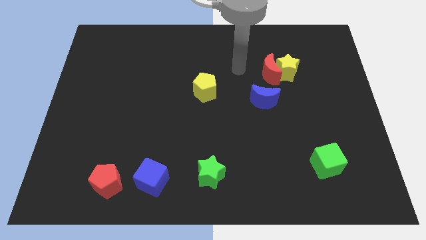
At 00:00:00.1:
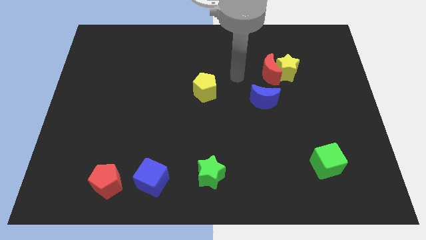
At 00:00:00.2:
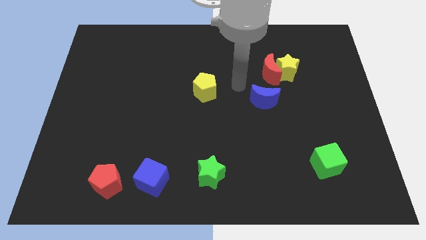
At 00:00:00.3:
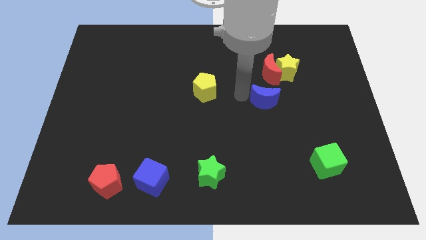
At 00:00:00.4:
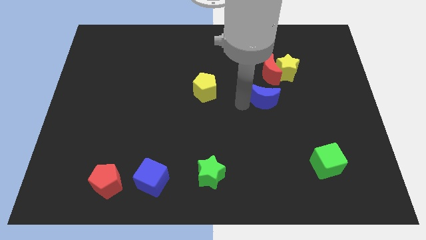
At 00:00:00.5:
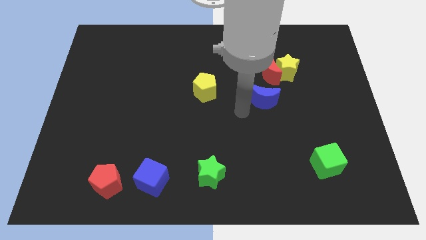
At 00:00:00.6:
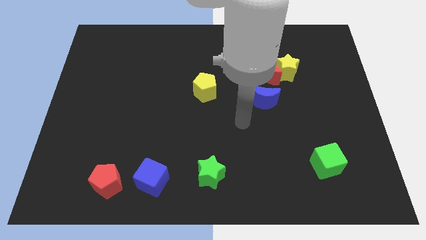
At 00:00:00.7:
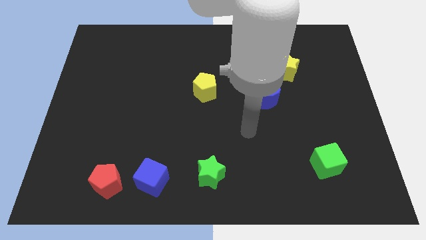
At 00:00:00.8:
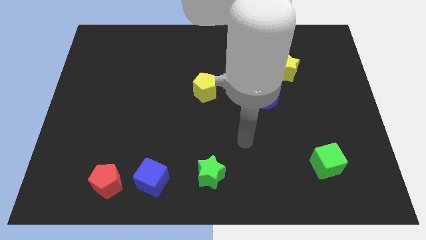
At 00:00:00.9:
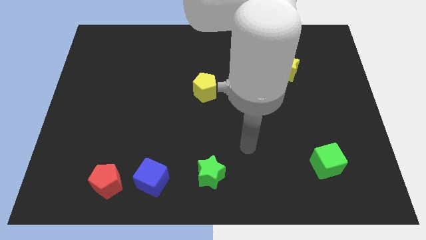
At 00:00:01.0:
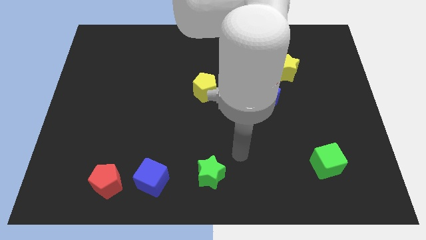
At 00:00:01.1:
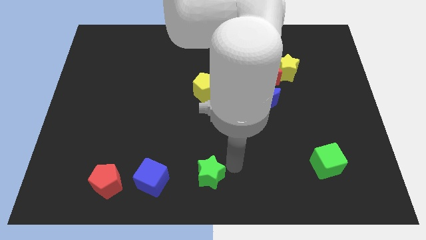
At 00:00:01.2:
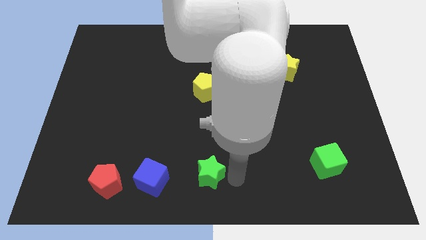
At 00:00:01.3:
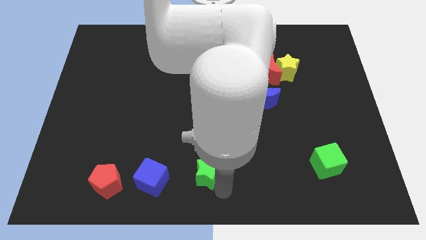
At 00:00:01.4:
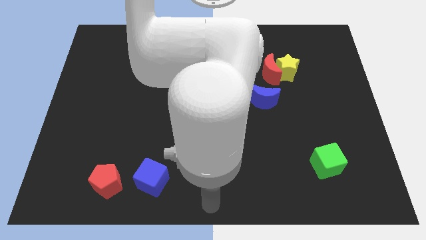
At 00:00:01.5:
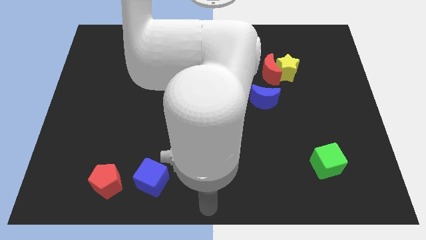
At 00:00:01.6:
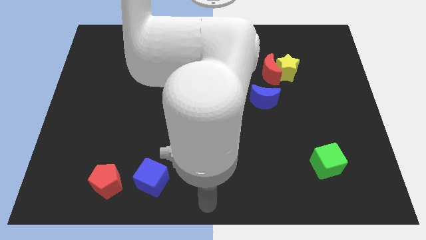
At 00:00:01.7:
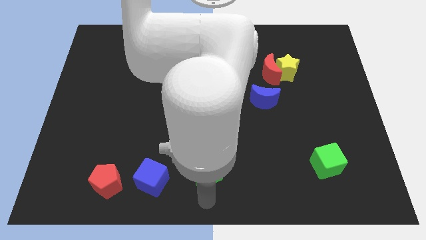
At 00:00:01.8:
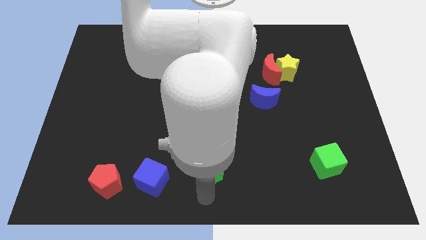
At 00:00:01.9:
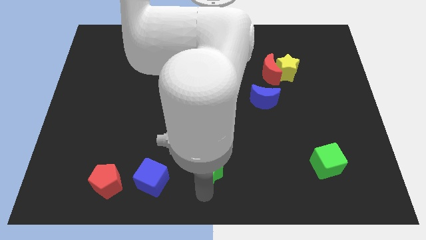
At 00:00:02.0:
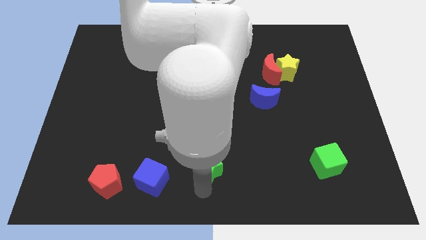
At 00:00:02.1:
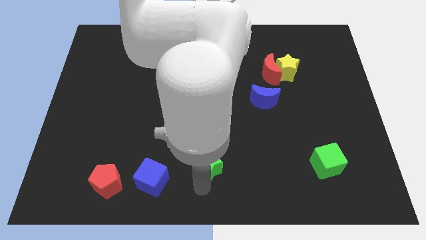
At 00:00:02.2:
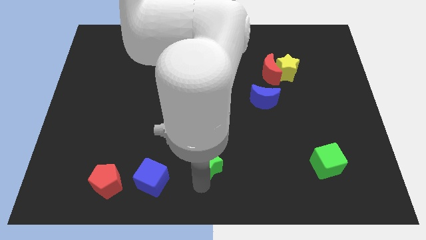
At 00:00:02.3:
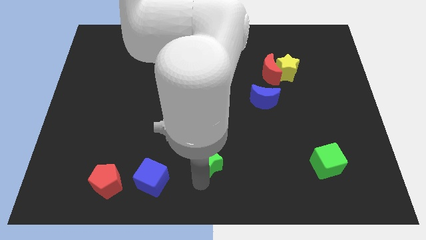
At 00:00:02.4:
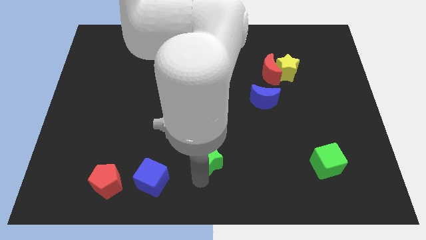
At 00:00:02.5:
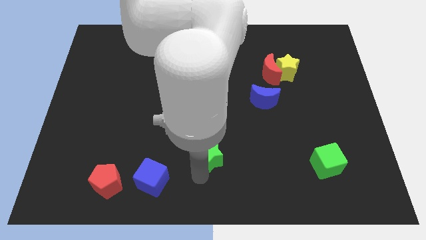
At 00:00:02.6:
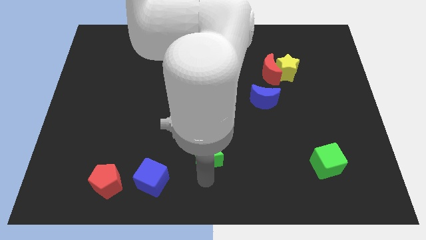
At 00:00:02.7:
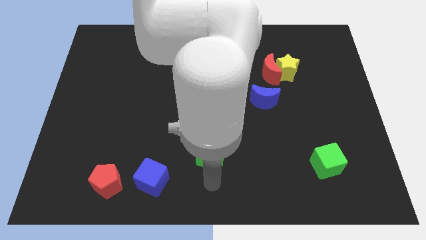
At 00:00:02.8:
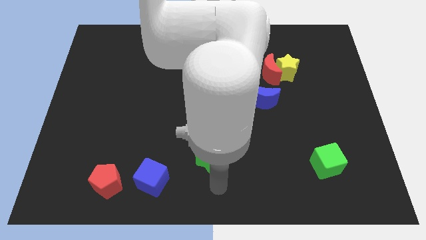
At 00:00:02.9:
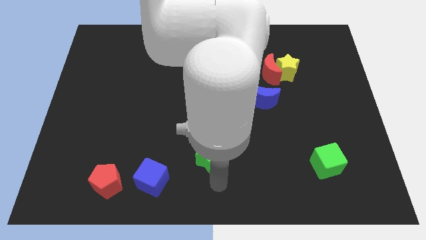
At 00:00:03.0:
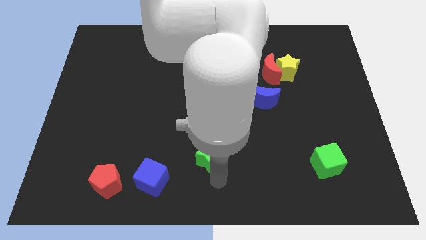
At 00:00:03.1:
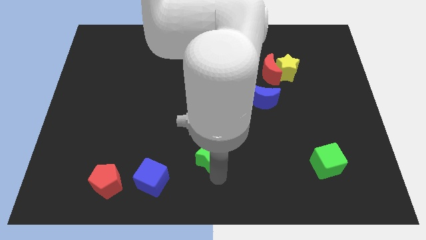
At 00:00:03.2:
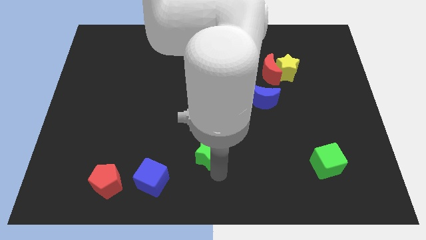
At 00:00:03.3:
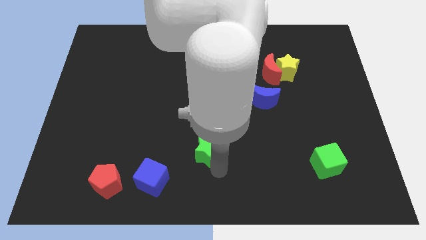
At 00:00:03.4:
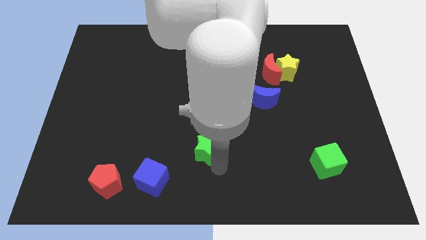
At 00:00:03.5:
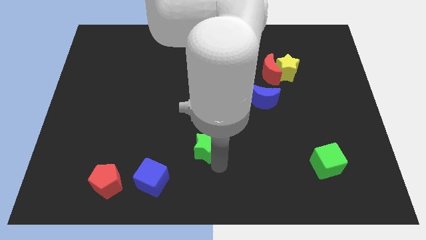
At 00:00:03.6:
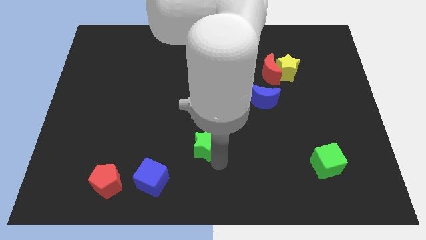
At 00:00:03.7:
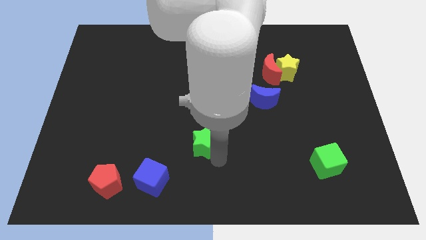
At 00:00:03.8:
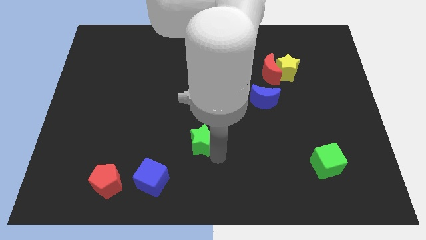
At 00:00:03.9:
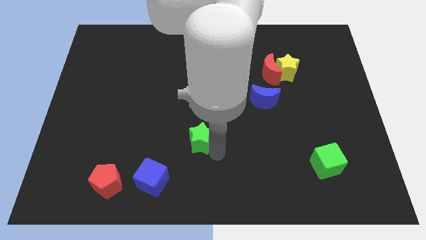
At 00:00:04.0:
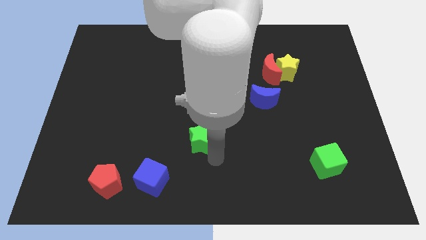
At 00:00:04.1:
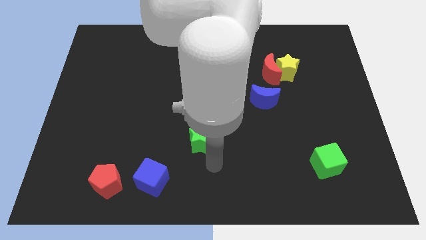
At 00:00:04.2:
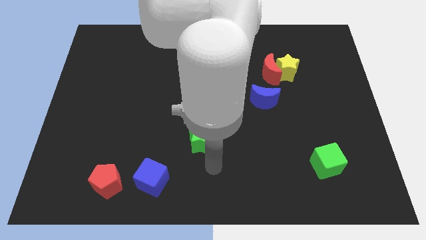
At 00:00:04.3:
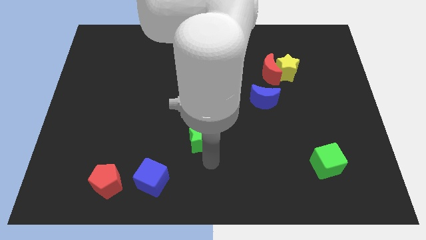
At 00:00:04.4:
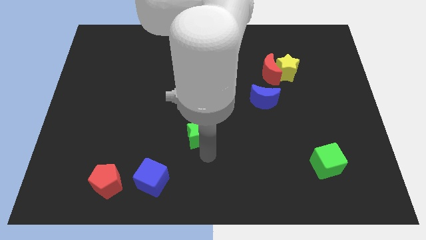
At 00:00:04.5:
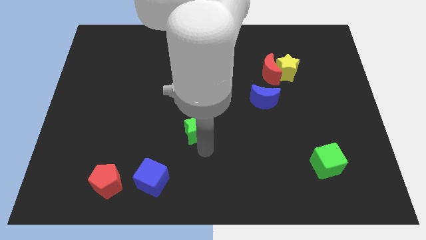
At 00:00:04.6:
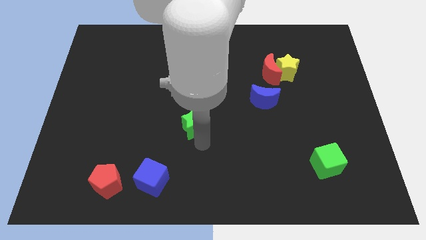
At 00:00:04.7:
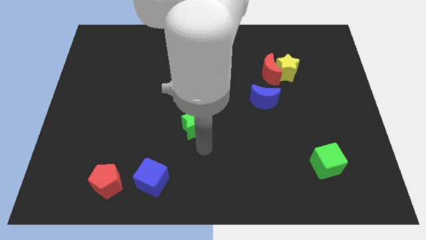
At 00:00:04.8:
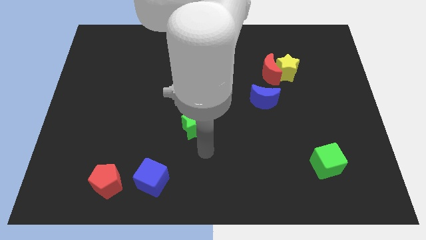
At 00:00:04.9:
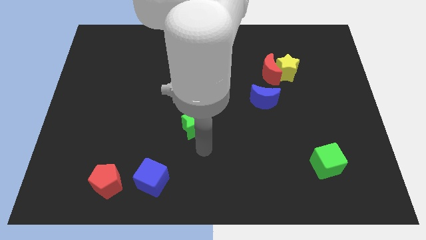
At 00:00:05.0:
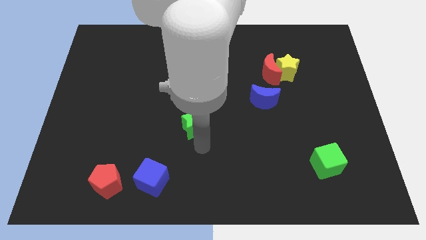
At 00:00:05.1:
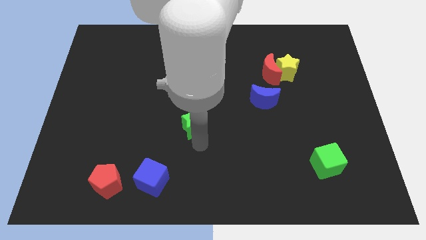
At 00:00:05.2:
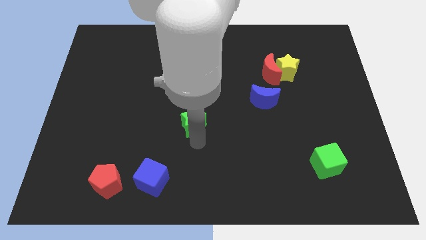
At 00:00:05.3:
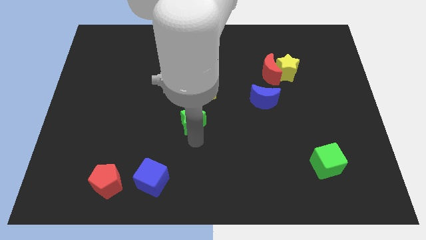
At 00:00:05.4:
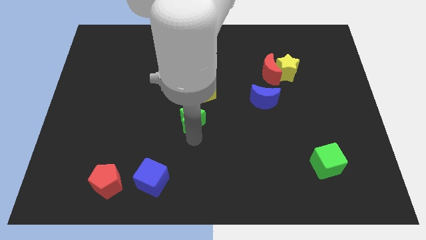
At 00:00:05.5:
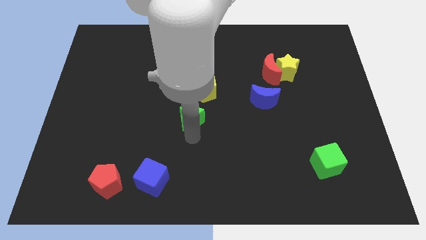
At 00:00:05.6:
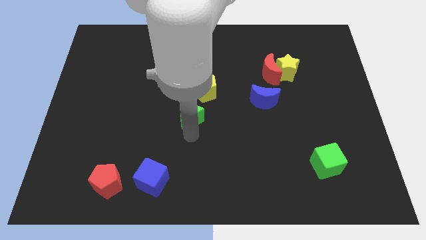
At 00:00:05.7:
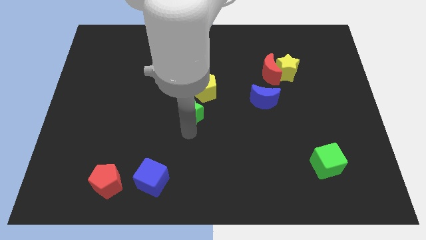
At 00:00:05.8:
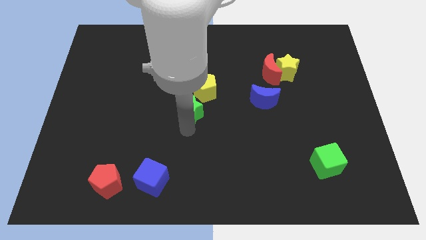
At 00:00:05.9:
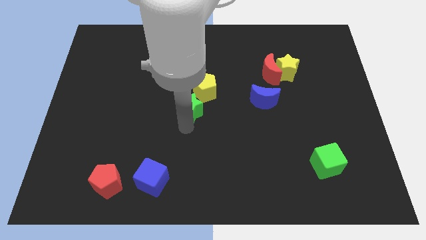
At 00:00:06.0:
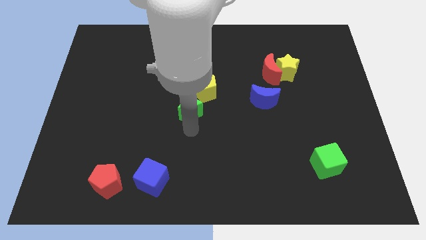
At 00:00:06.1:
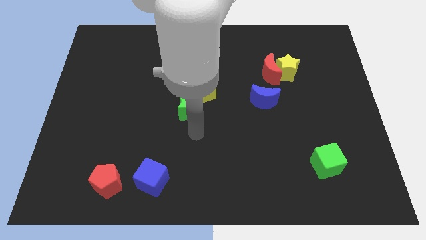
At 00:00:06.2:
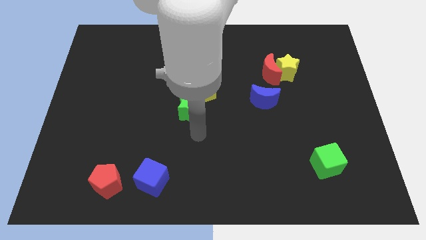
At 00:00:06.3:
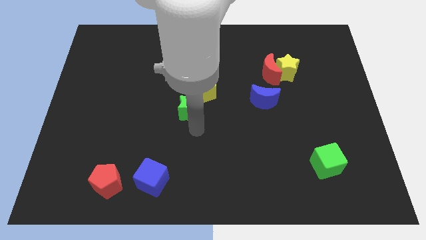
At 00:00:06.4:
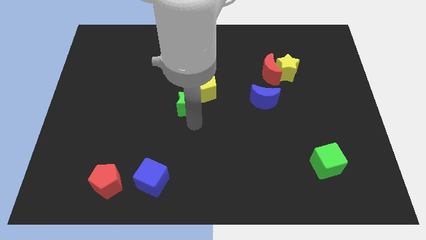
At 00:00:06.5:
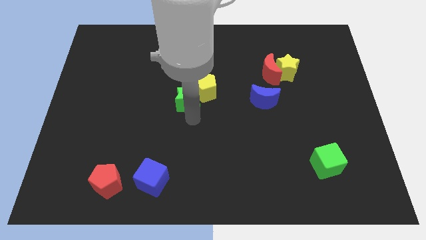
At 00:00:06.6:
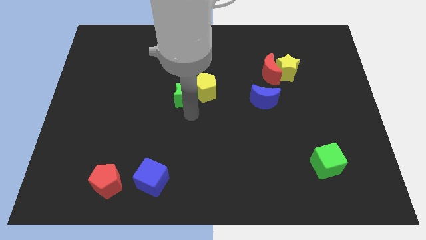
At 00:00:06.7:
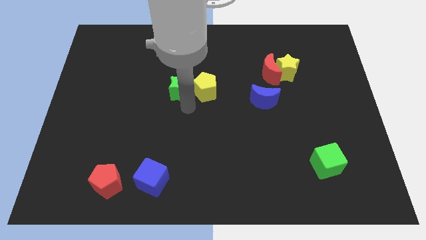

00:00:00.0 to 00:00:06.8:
move the green star diagonally up and to the left of the yellow pentagon

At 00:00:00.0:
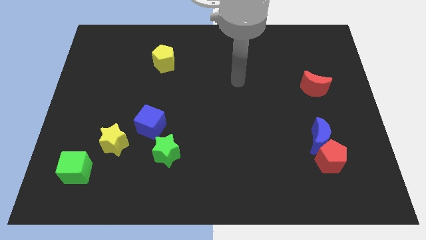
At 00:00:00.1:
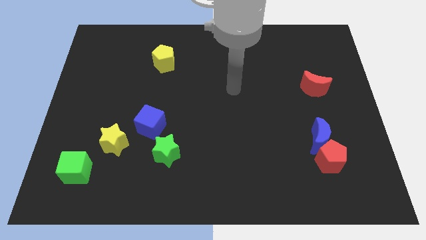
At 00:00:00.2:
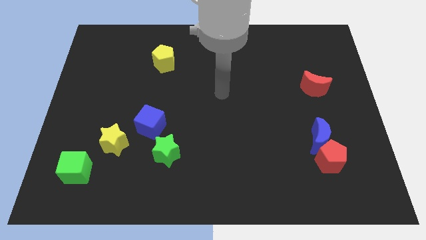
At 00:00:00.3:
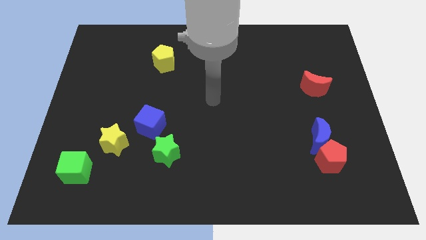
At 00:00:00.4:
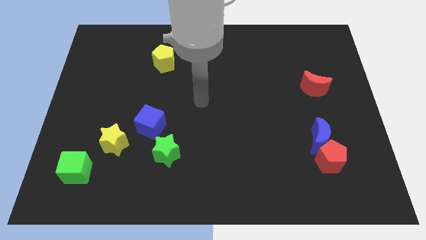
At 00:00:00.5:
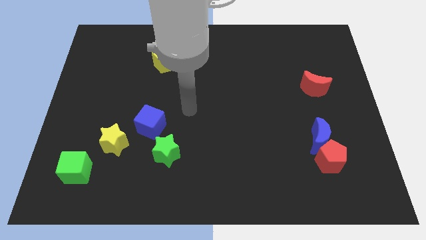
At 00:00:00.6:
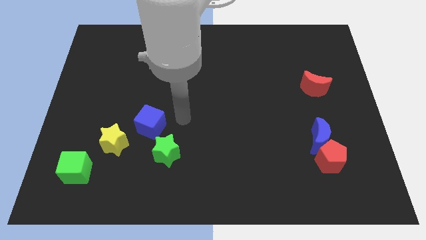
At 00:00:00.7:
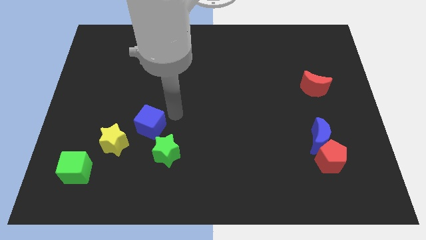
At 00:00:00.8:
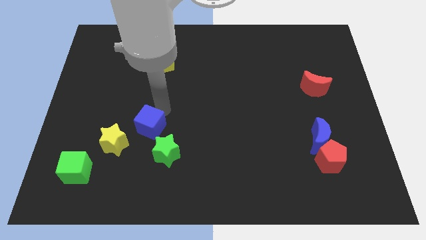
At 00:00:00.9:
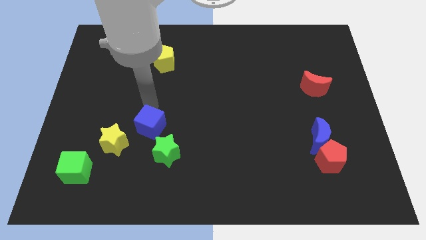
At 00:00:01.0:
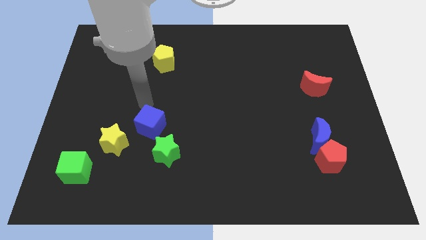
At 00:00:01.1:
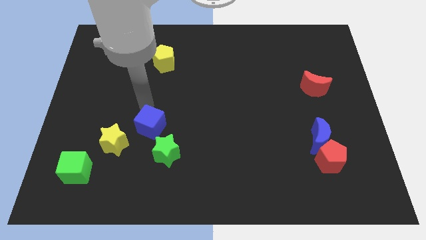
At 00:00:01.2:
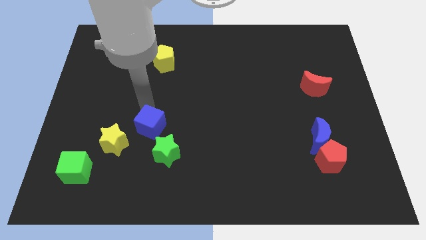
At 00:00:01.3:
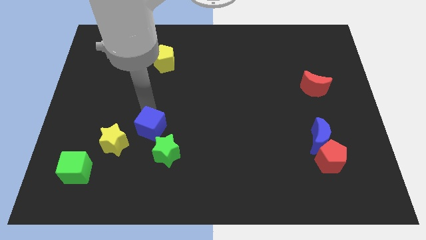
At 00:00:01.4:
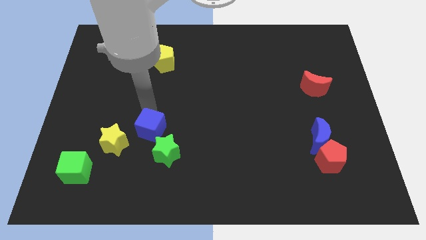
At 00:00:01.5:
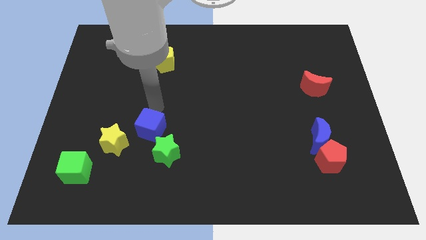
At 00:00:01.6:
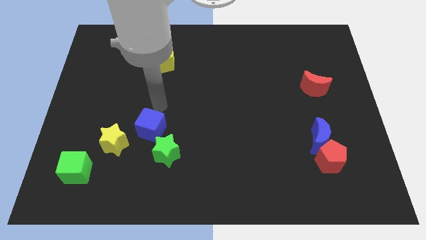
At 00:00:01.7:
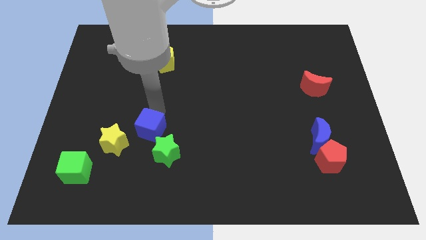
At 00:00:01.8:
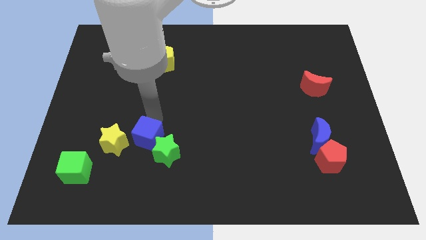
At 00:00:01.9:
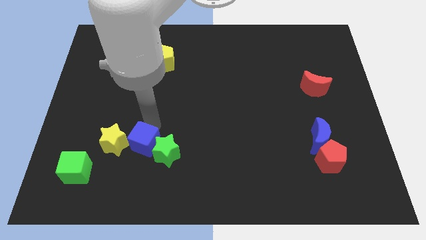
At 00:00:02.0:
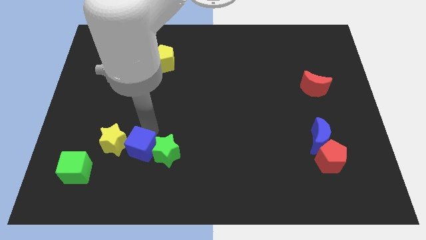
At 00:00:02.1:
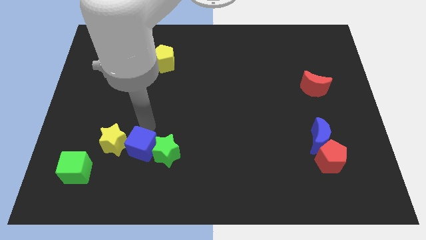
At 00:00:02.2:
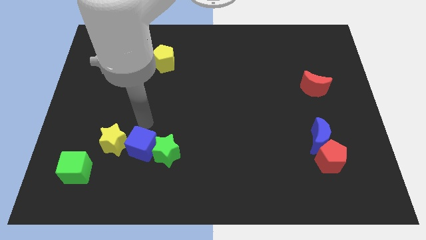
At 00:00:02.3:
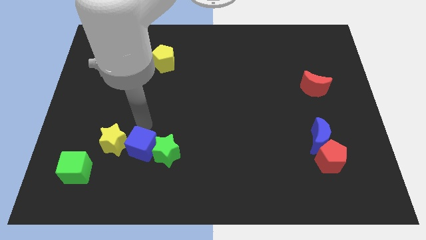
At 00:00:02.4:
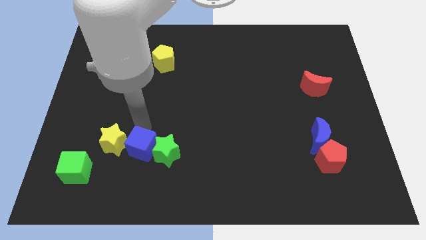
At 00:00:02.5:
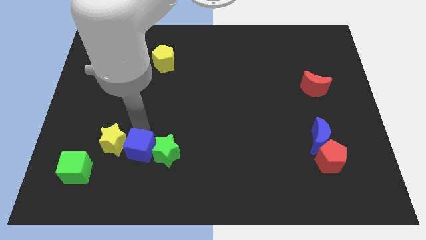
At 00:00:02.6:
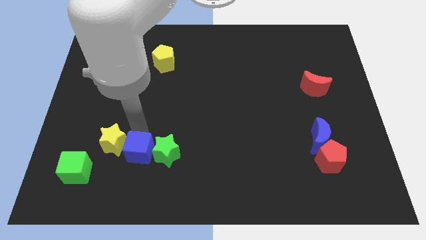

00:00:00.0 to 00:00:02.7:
move the blue cube diagonally down and to the left of the green star
